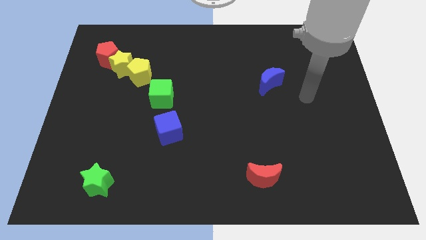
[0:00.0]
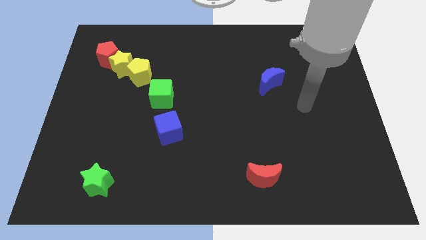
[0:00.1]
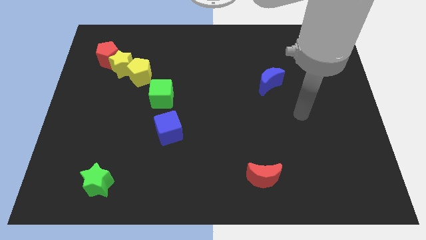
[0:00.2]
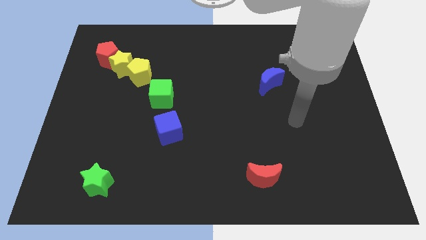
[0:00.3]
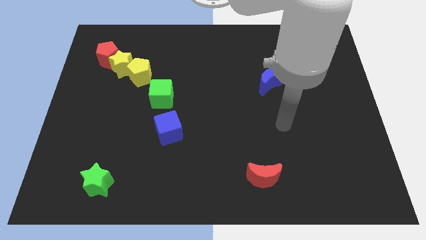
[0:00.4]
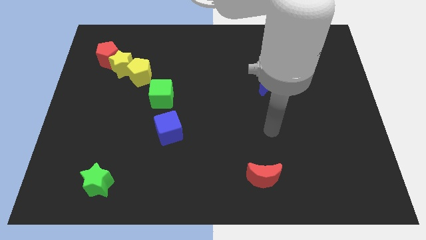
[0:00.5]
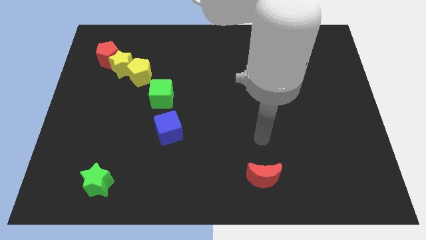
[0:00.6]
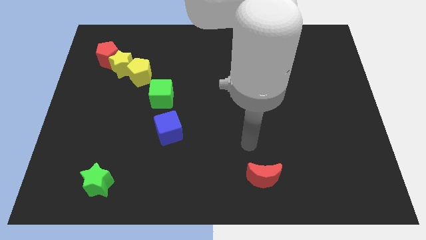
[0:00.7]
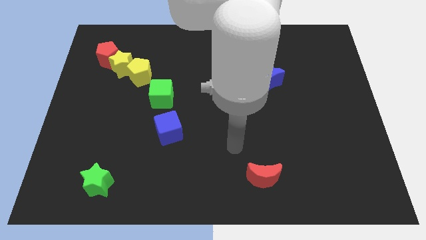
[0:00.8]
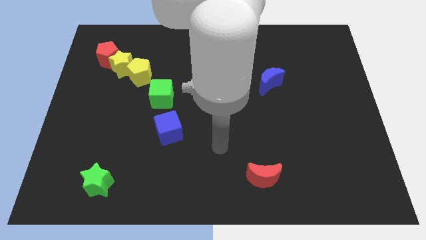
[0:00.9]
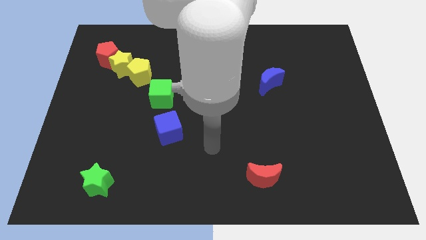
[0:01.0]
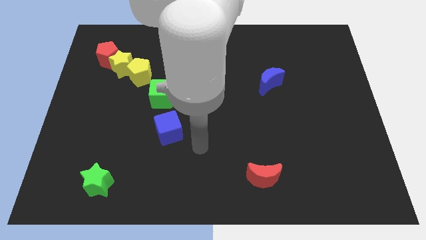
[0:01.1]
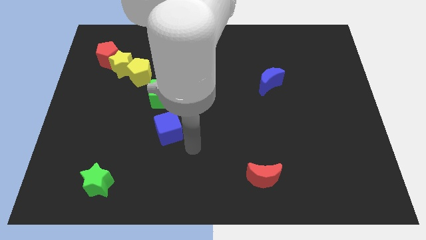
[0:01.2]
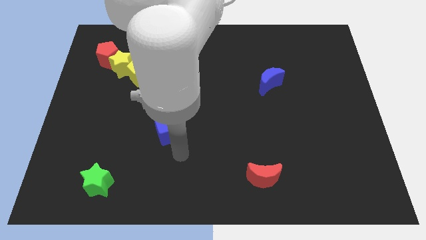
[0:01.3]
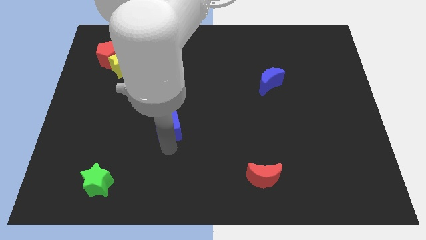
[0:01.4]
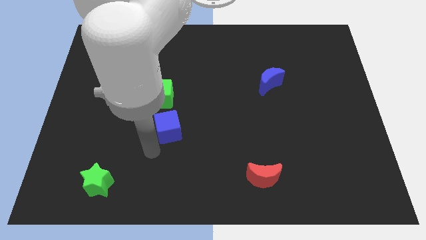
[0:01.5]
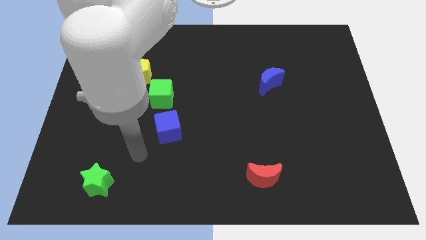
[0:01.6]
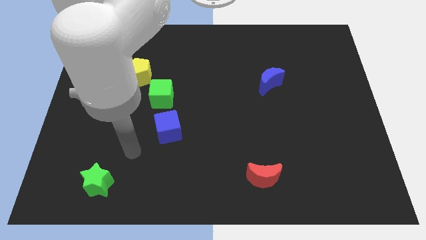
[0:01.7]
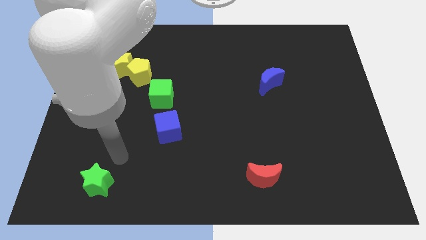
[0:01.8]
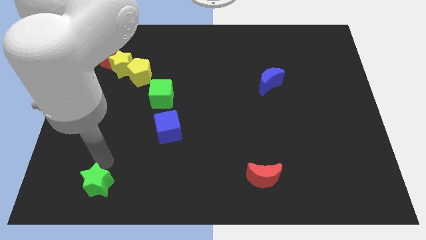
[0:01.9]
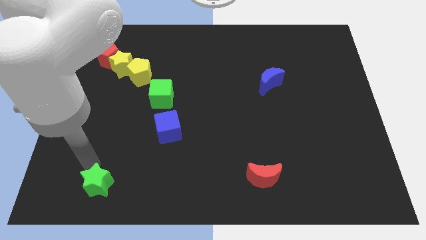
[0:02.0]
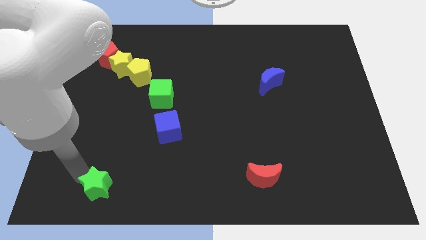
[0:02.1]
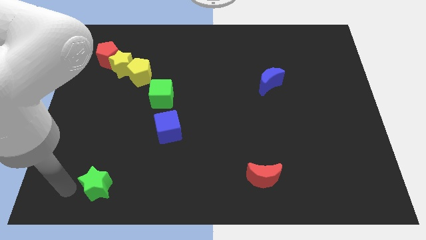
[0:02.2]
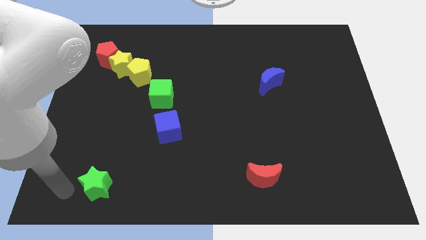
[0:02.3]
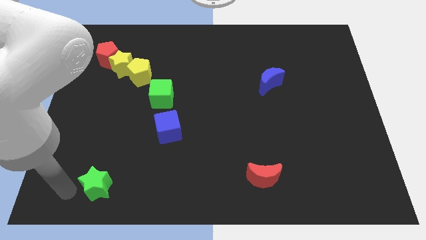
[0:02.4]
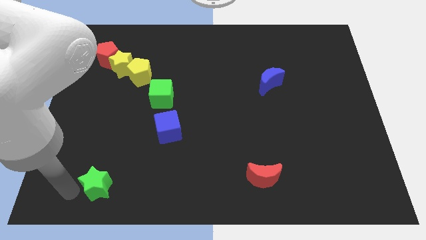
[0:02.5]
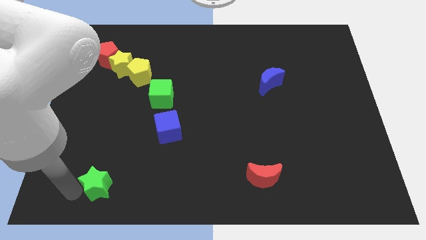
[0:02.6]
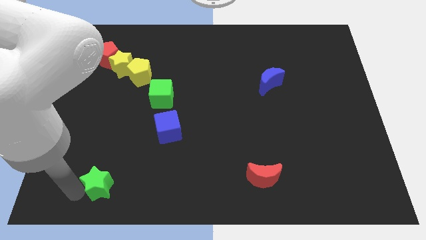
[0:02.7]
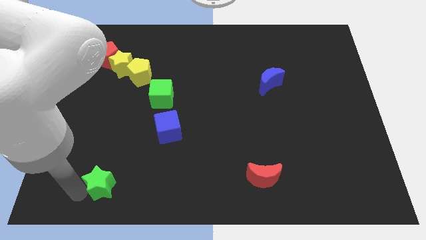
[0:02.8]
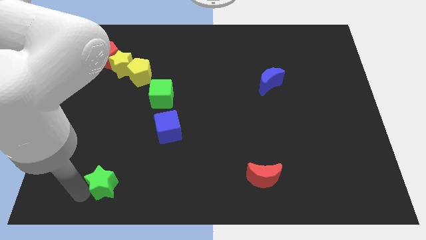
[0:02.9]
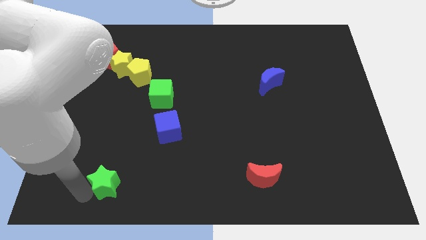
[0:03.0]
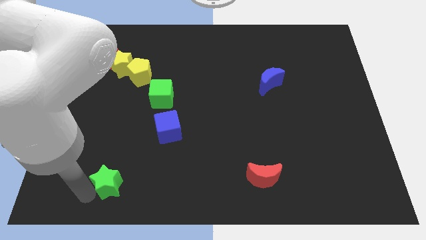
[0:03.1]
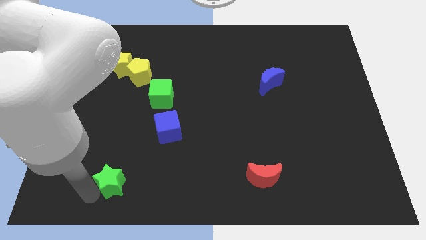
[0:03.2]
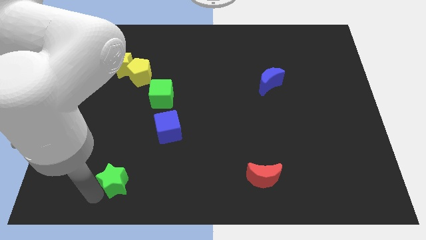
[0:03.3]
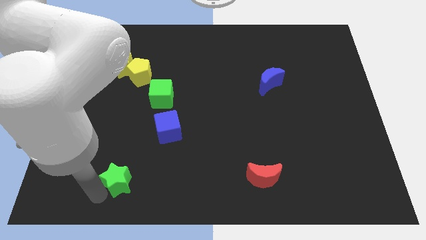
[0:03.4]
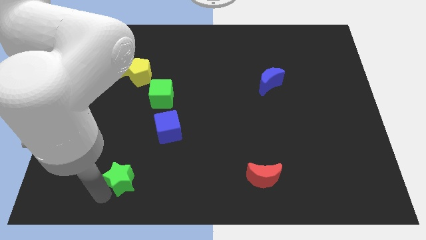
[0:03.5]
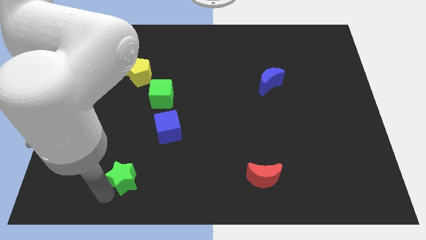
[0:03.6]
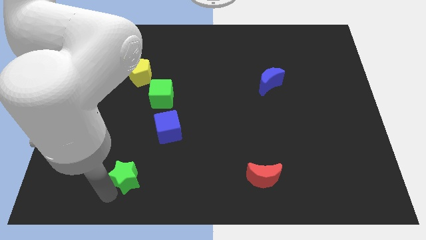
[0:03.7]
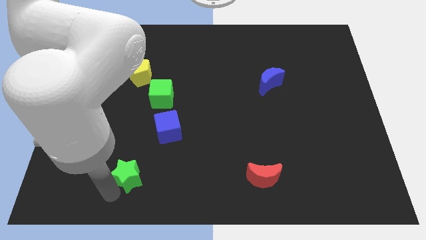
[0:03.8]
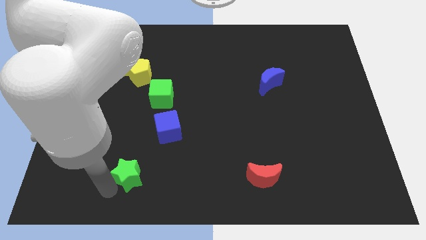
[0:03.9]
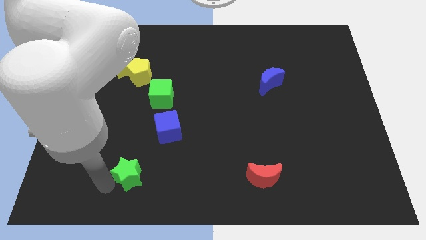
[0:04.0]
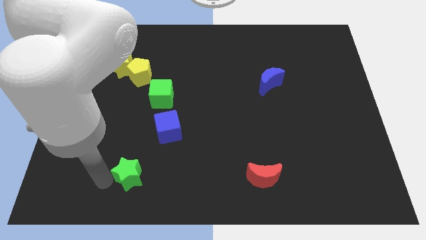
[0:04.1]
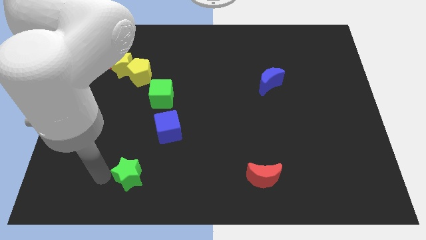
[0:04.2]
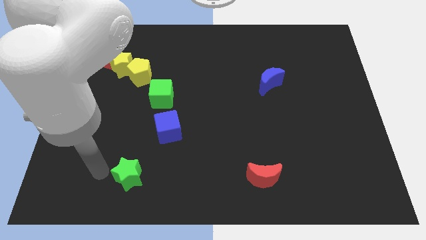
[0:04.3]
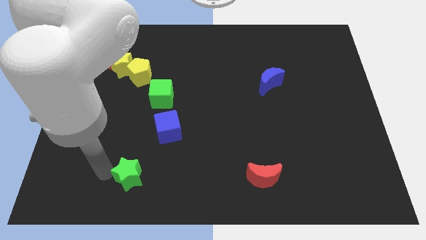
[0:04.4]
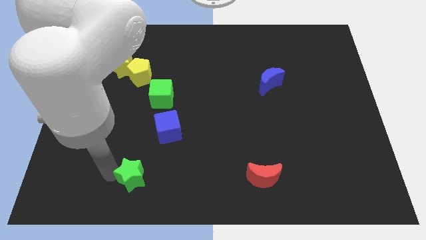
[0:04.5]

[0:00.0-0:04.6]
slightly slide the green star right

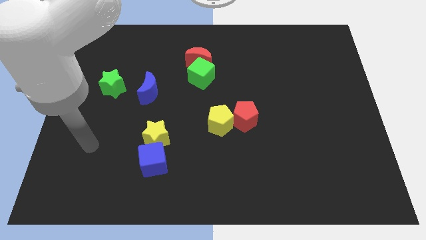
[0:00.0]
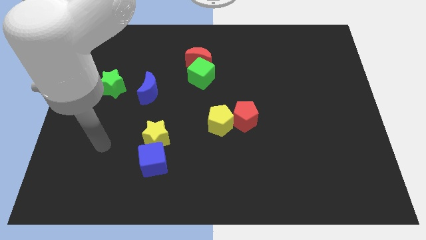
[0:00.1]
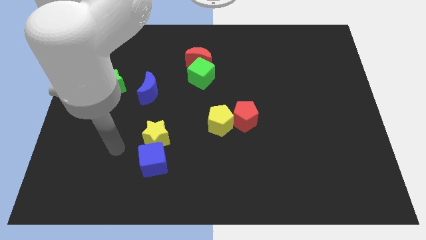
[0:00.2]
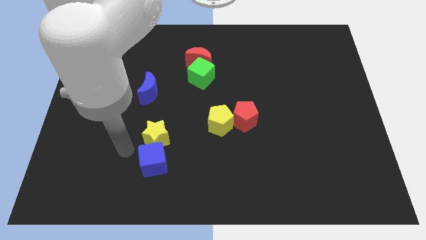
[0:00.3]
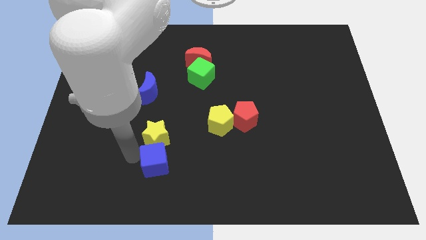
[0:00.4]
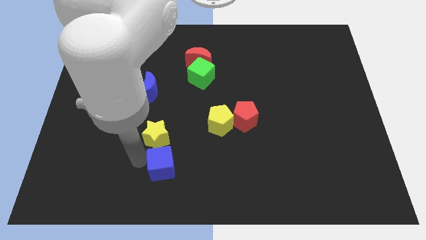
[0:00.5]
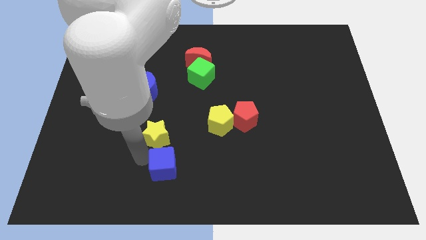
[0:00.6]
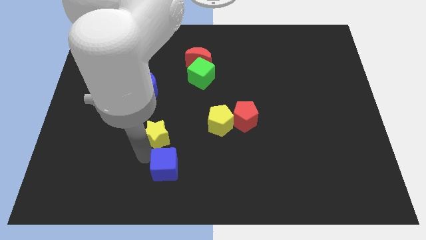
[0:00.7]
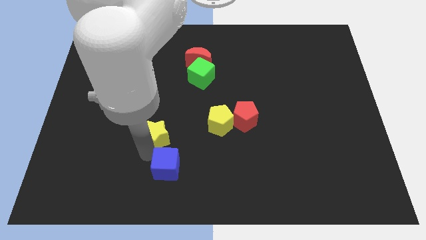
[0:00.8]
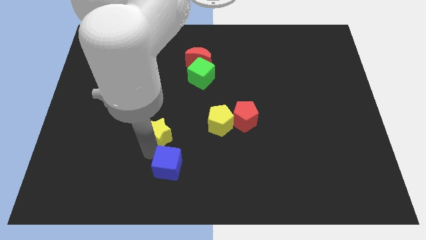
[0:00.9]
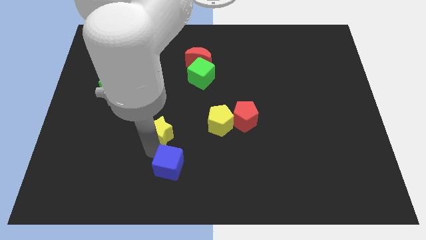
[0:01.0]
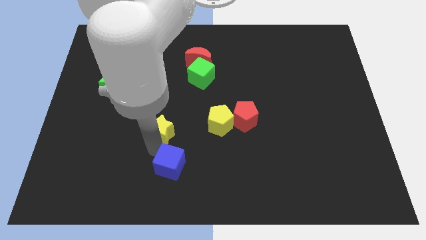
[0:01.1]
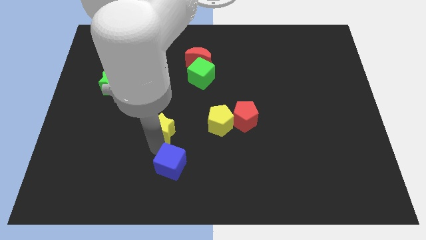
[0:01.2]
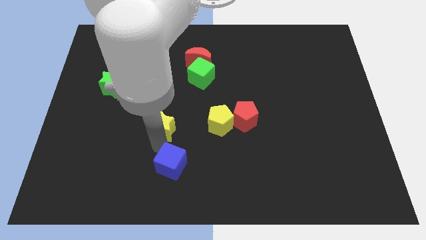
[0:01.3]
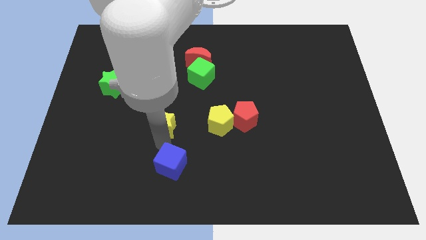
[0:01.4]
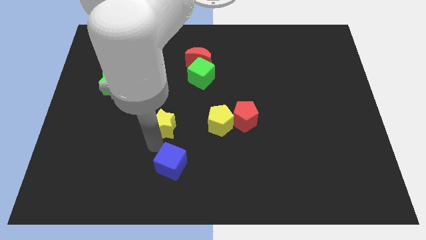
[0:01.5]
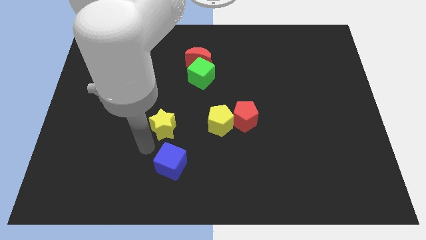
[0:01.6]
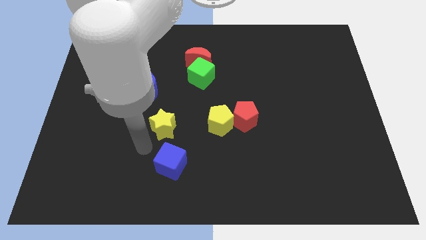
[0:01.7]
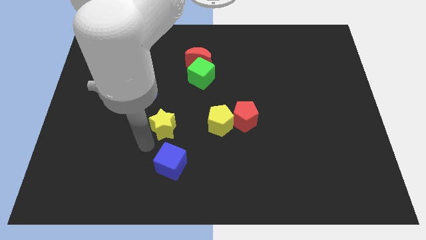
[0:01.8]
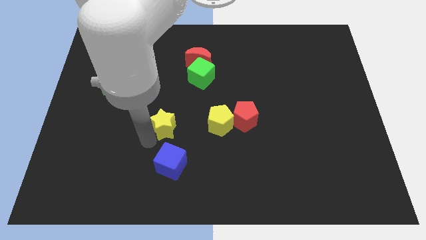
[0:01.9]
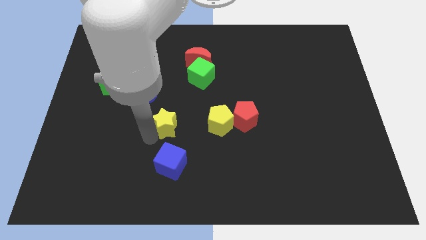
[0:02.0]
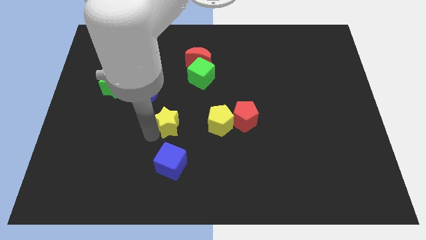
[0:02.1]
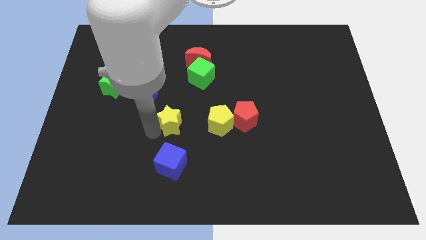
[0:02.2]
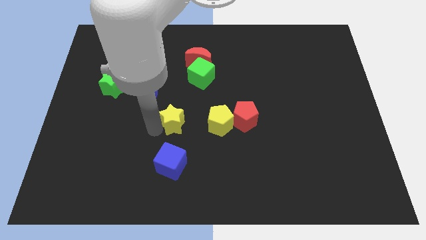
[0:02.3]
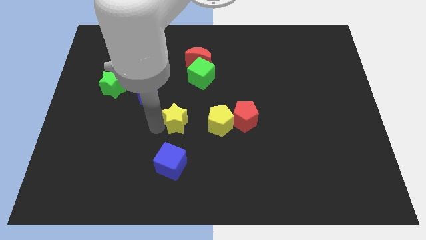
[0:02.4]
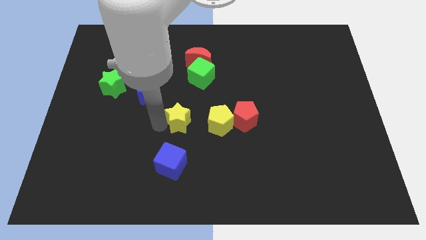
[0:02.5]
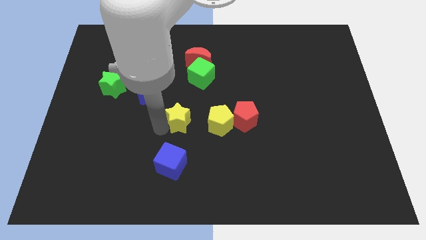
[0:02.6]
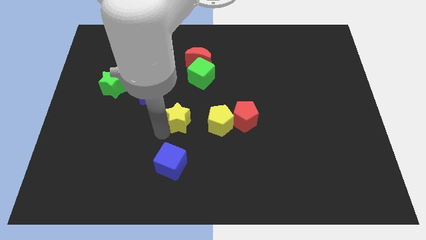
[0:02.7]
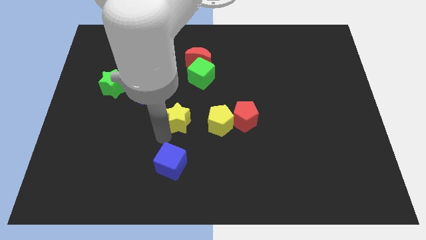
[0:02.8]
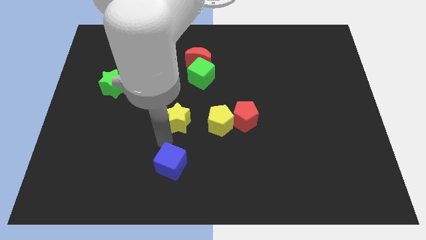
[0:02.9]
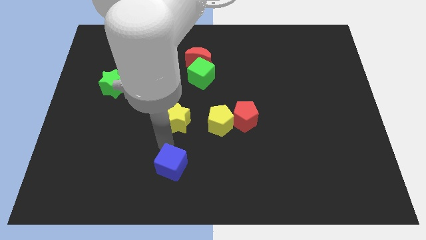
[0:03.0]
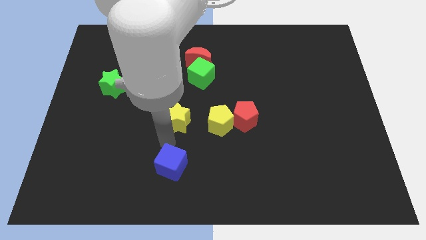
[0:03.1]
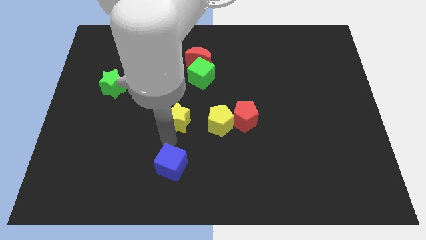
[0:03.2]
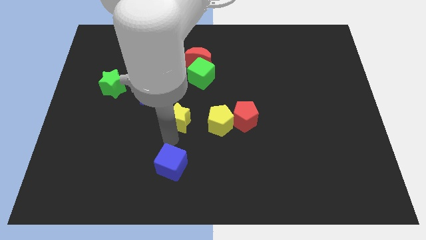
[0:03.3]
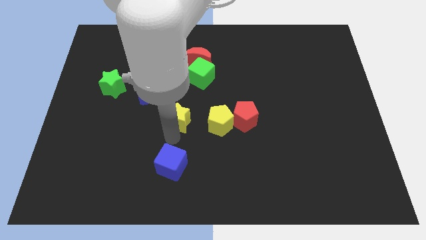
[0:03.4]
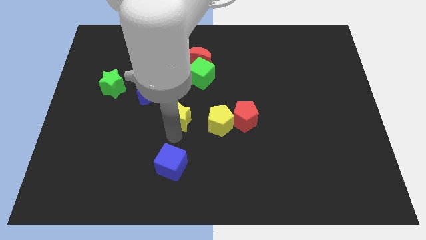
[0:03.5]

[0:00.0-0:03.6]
move the yellow star somewhat diagonally upwards and right

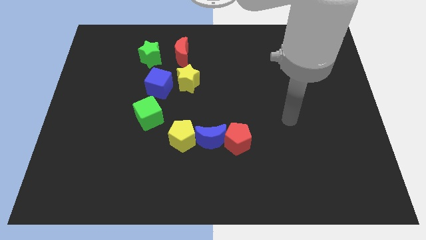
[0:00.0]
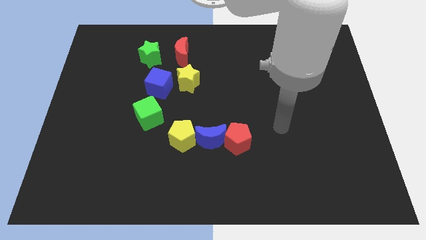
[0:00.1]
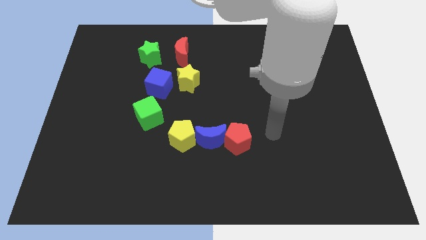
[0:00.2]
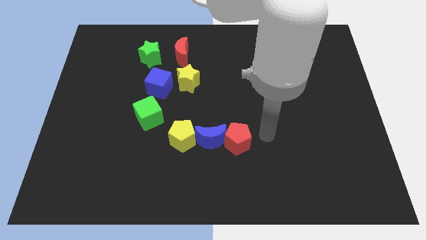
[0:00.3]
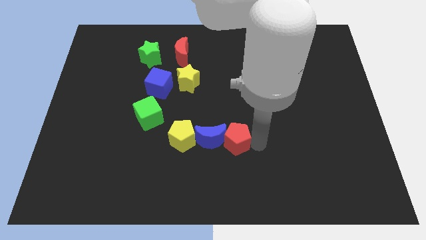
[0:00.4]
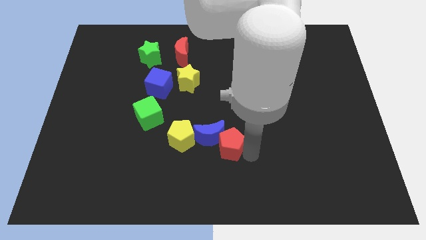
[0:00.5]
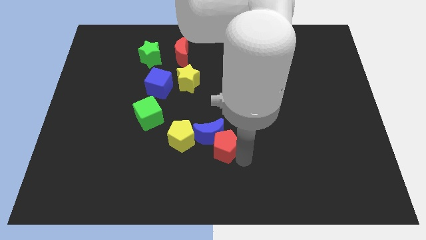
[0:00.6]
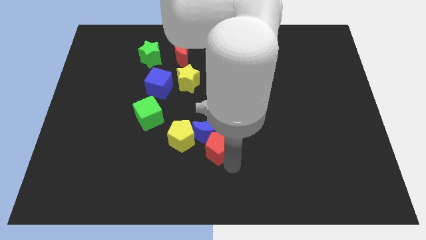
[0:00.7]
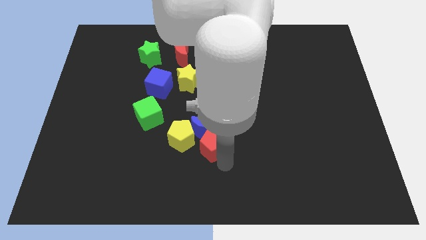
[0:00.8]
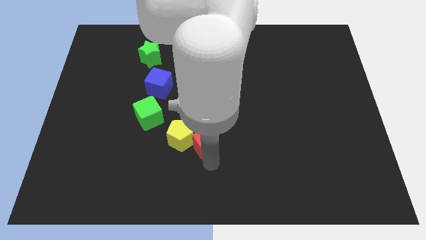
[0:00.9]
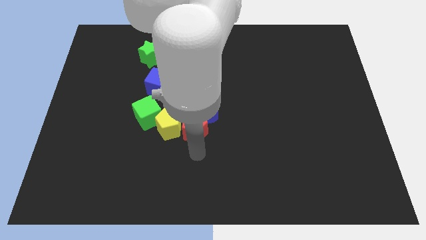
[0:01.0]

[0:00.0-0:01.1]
slide the blue moon somewhat up
